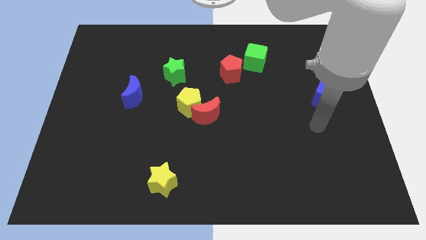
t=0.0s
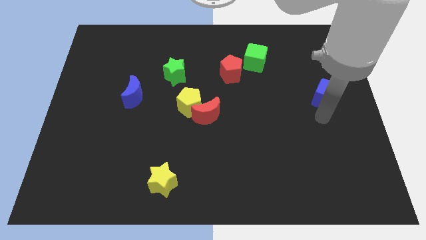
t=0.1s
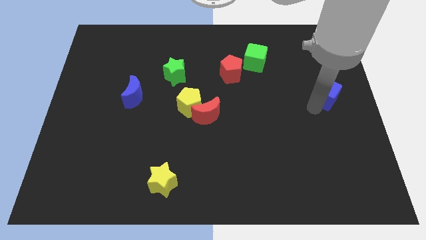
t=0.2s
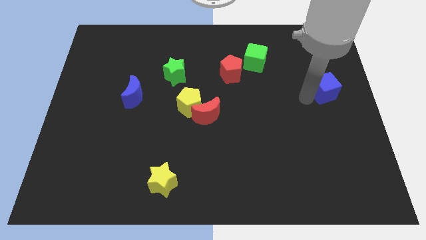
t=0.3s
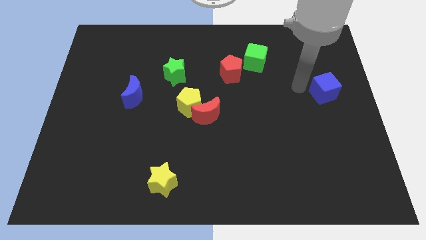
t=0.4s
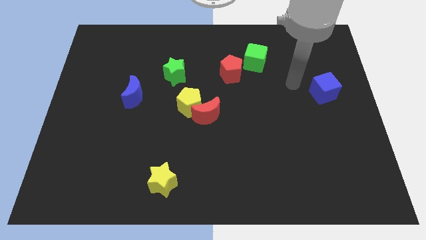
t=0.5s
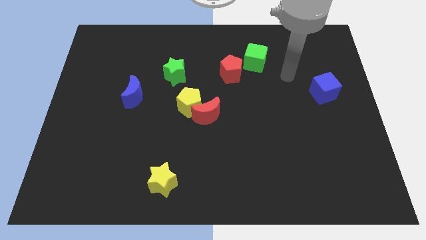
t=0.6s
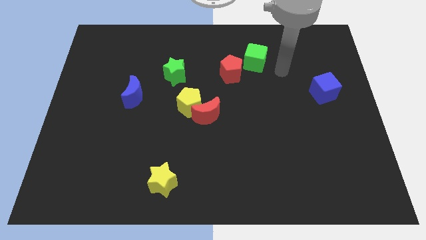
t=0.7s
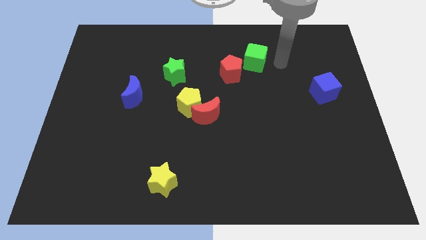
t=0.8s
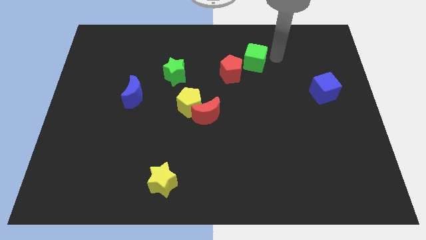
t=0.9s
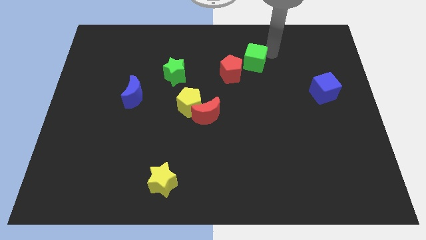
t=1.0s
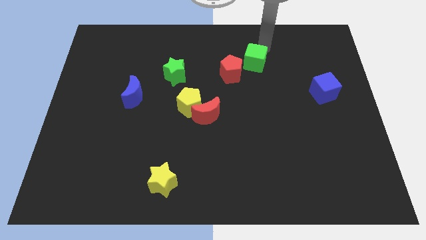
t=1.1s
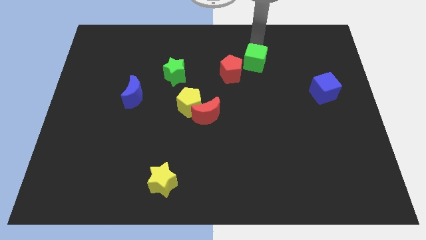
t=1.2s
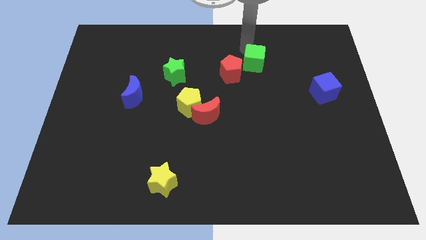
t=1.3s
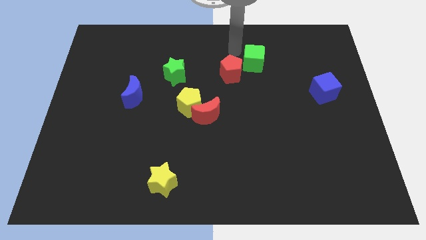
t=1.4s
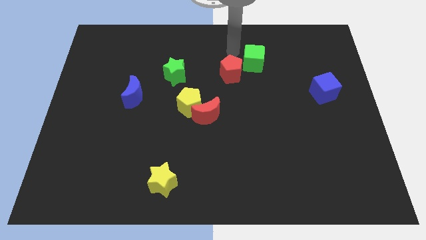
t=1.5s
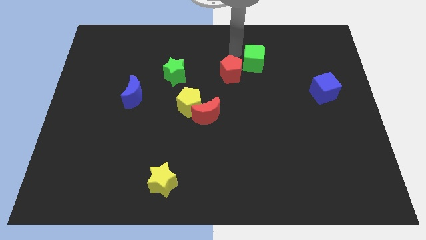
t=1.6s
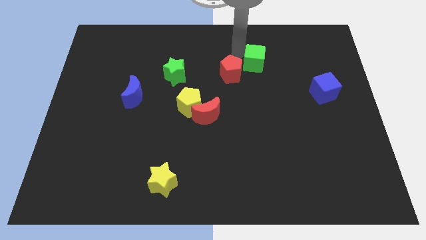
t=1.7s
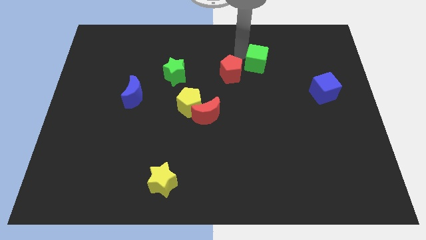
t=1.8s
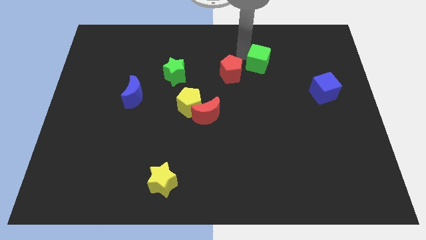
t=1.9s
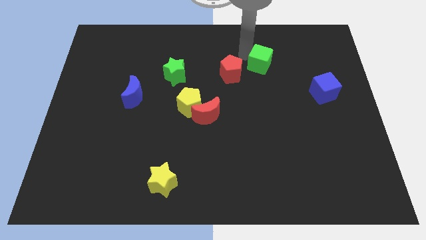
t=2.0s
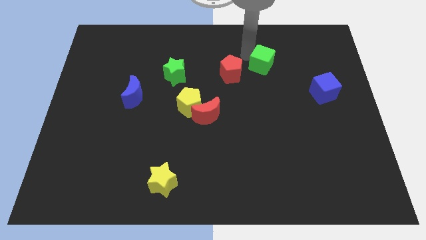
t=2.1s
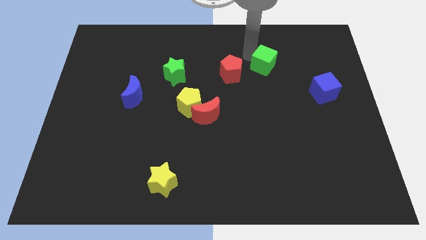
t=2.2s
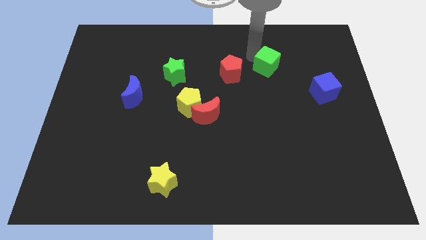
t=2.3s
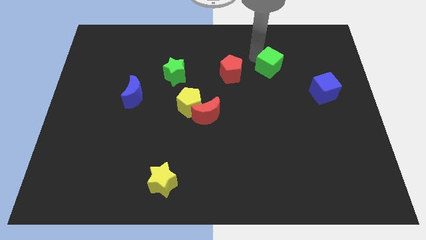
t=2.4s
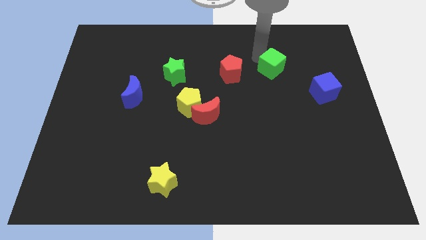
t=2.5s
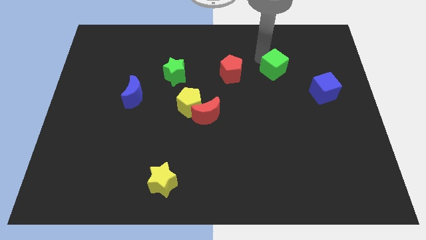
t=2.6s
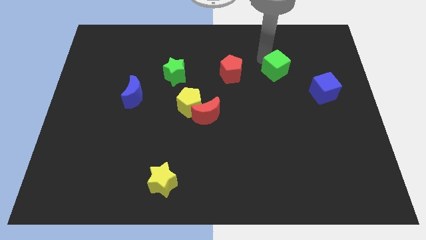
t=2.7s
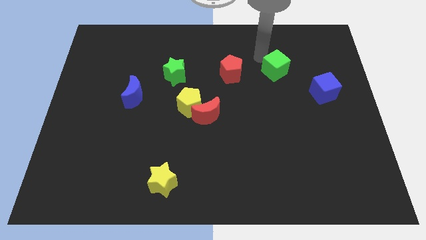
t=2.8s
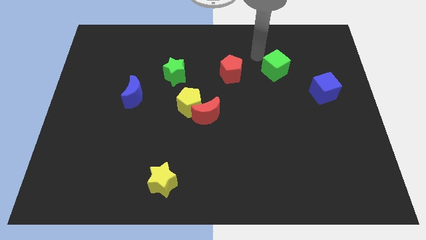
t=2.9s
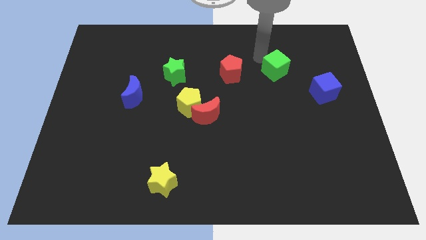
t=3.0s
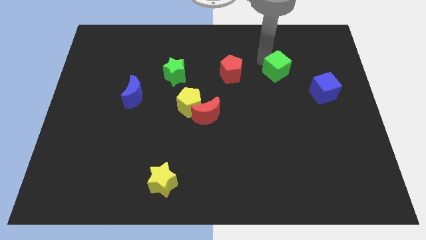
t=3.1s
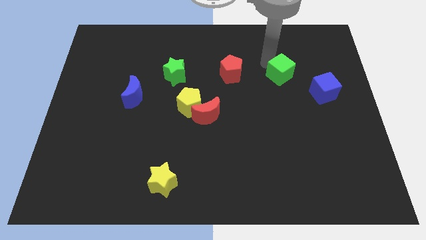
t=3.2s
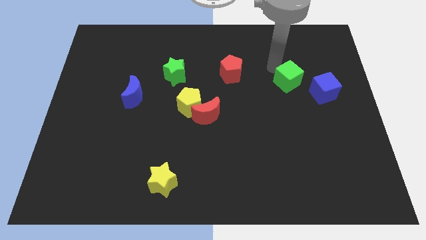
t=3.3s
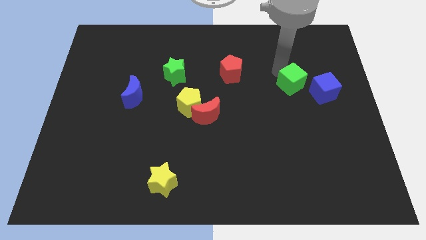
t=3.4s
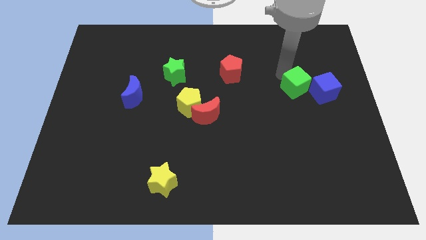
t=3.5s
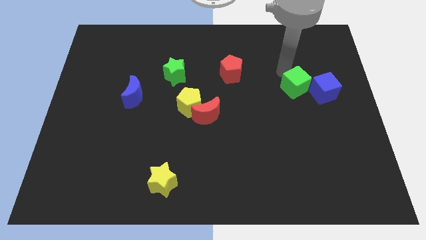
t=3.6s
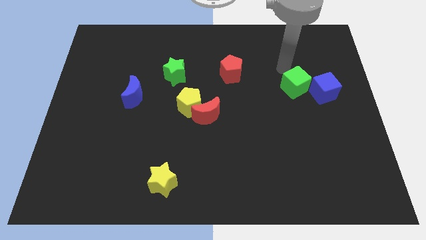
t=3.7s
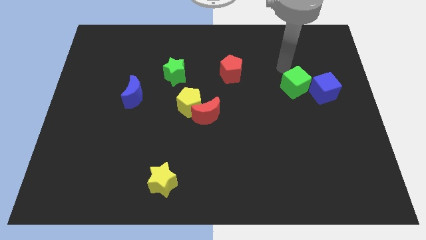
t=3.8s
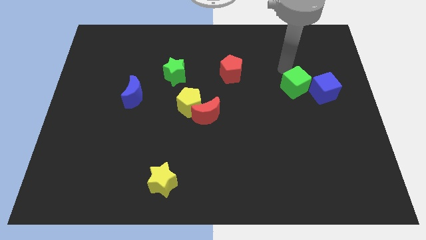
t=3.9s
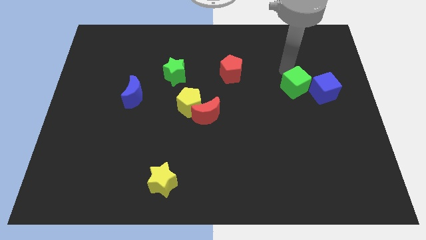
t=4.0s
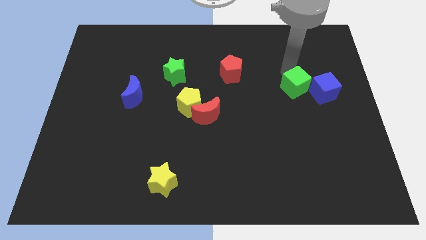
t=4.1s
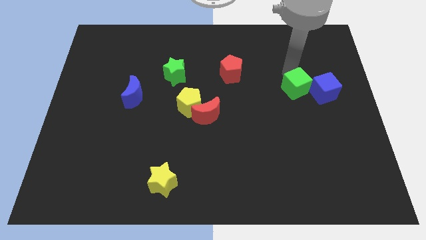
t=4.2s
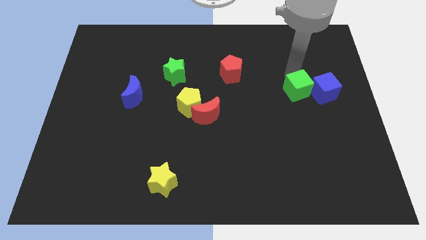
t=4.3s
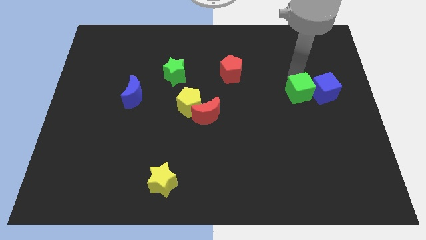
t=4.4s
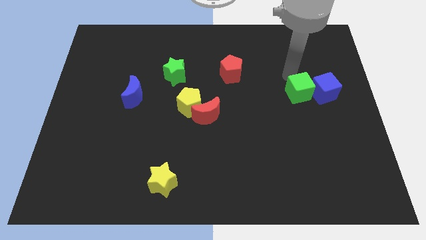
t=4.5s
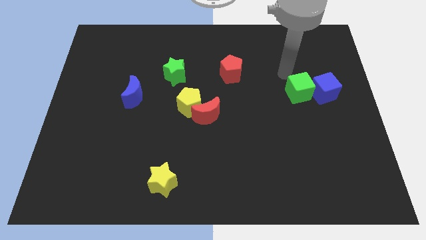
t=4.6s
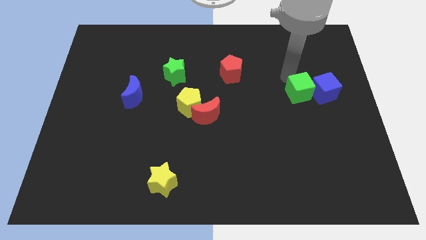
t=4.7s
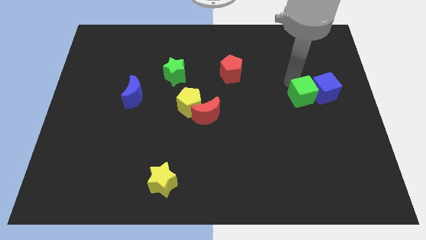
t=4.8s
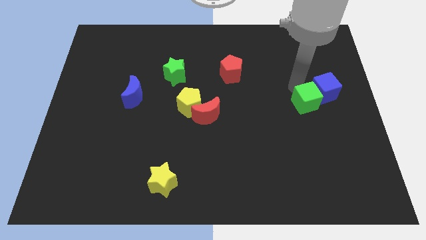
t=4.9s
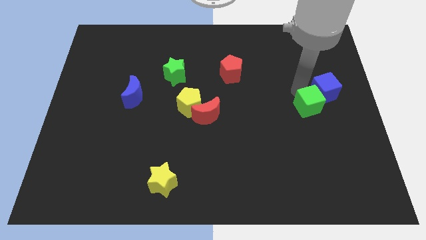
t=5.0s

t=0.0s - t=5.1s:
slide the green cube to the bottom of the blue cube

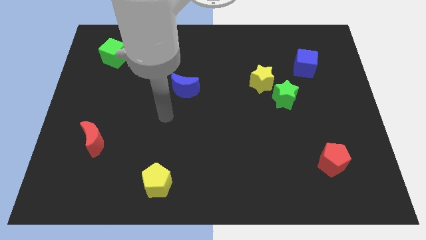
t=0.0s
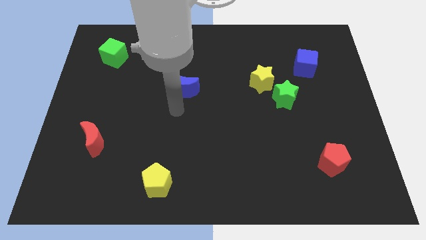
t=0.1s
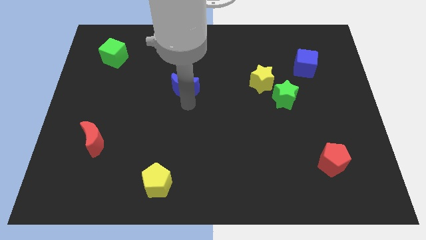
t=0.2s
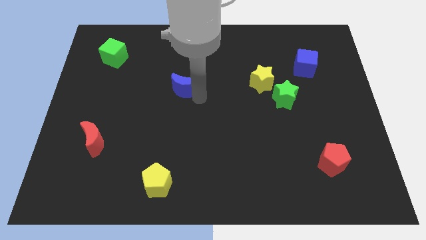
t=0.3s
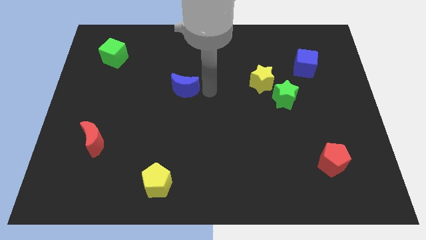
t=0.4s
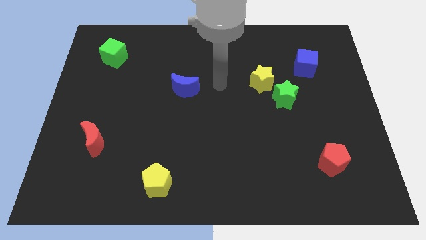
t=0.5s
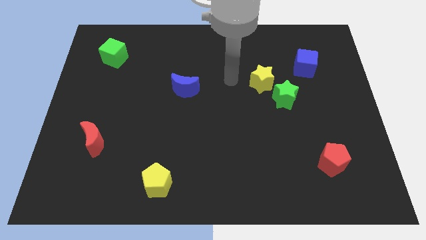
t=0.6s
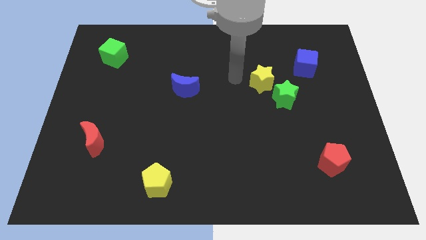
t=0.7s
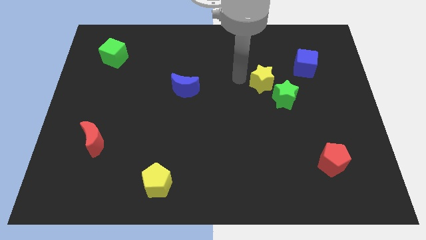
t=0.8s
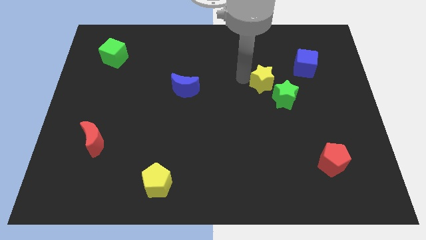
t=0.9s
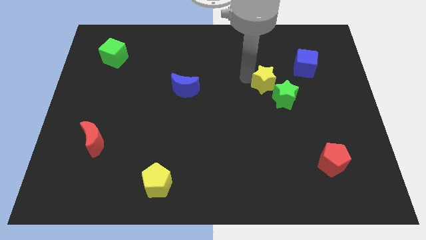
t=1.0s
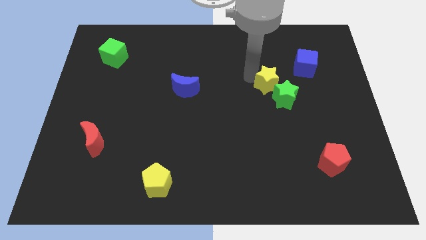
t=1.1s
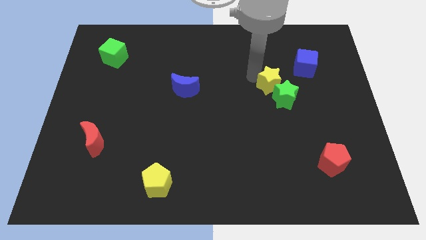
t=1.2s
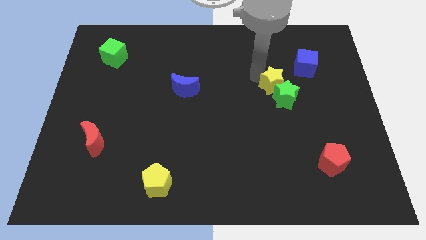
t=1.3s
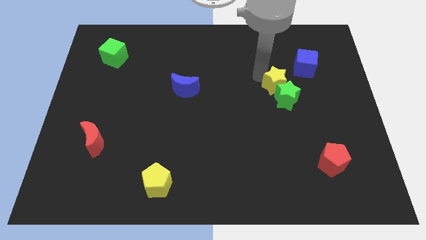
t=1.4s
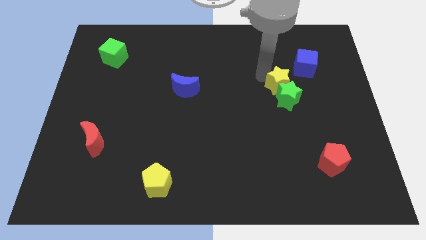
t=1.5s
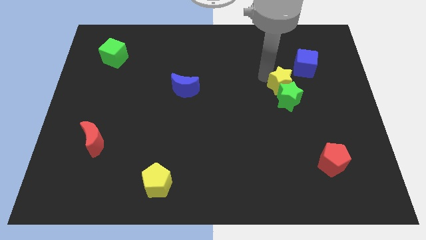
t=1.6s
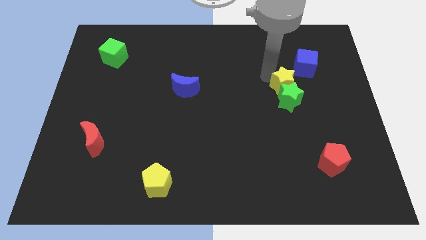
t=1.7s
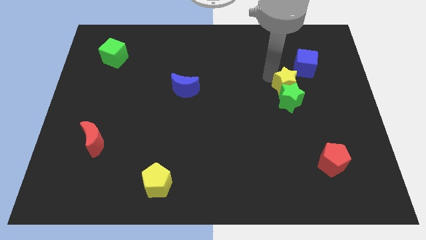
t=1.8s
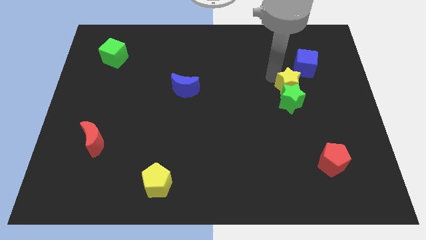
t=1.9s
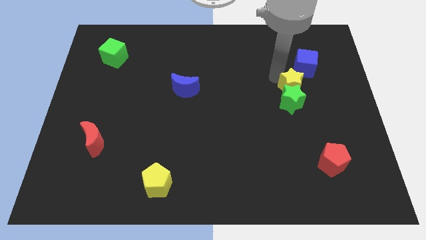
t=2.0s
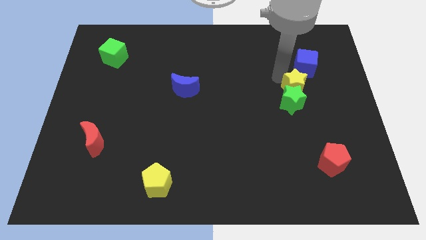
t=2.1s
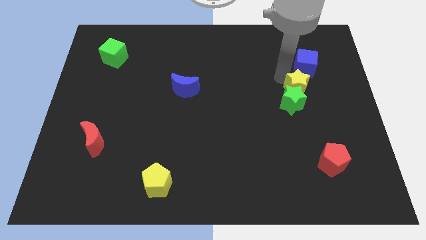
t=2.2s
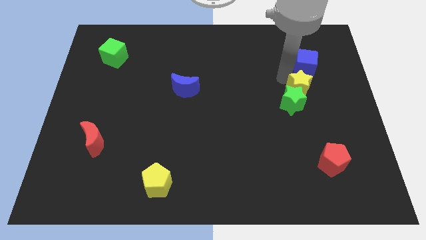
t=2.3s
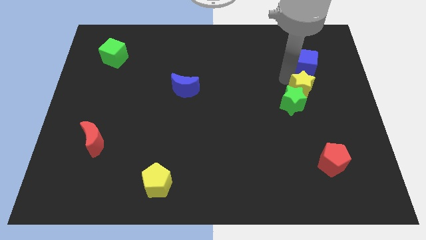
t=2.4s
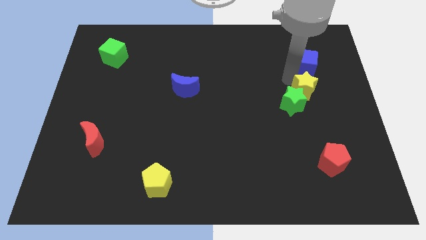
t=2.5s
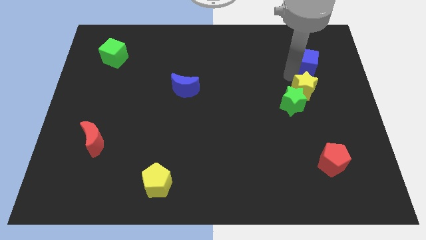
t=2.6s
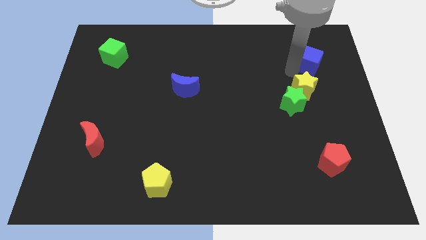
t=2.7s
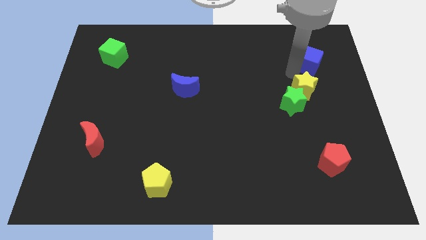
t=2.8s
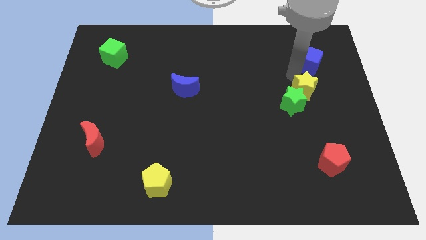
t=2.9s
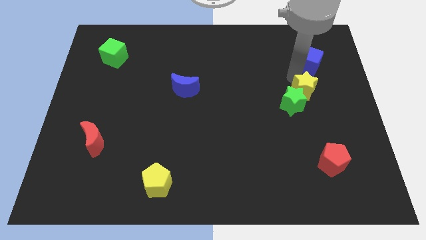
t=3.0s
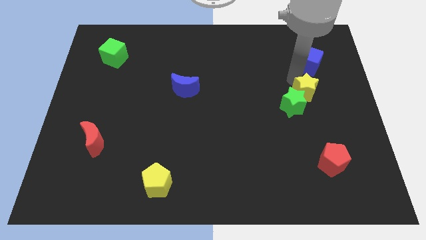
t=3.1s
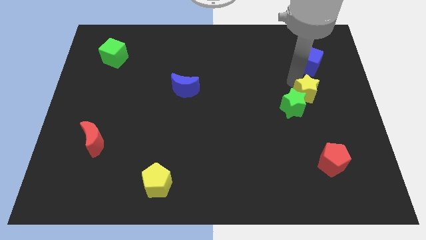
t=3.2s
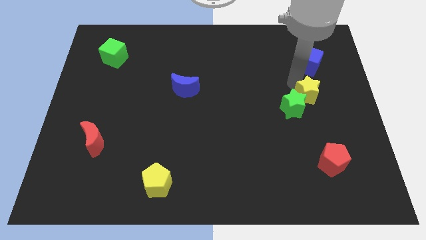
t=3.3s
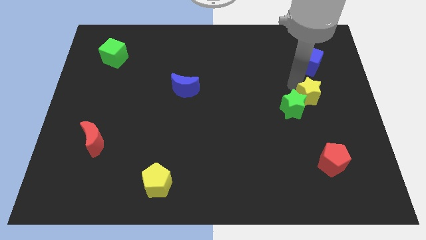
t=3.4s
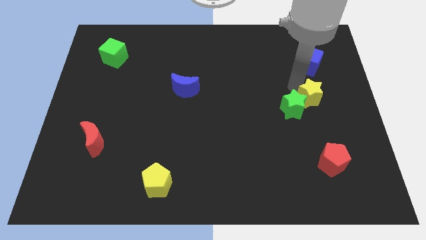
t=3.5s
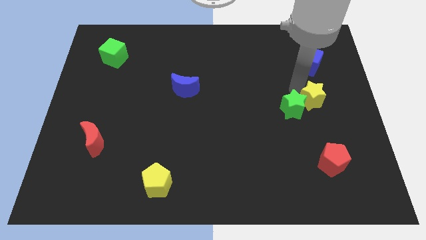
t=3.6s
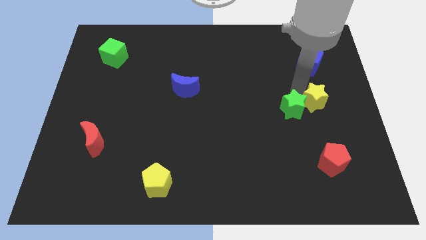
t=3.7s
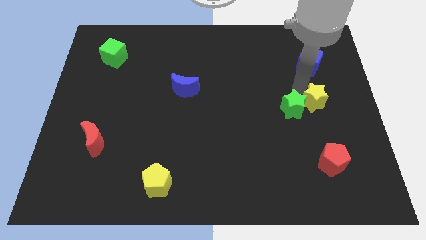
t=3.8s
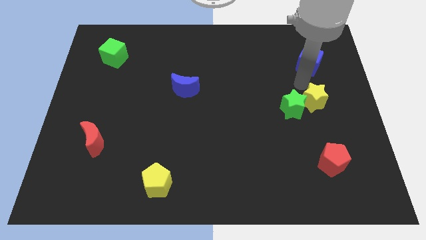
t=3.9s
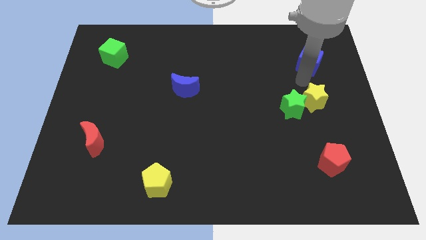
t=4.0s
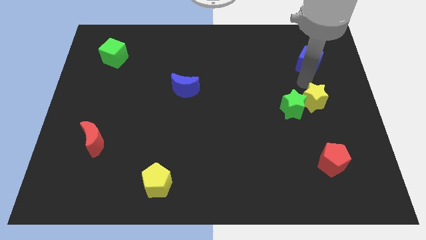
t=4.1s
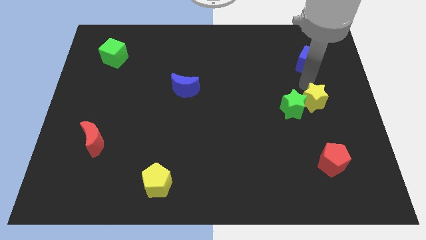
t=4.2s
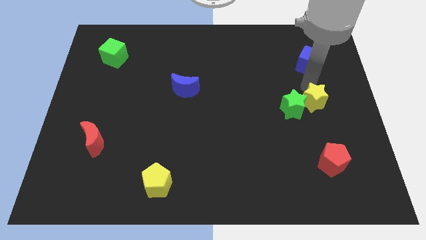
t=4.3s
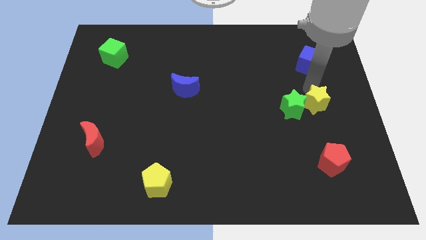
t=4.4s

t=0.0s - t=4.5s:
slide the yellow star to the top side of the red pentagon
